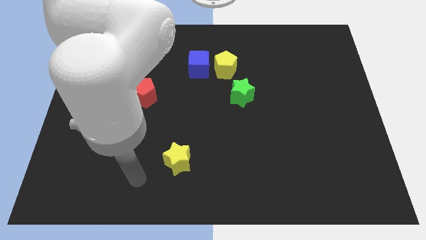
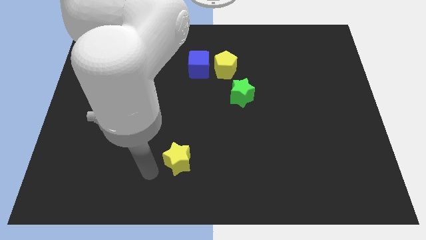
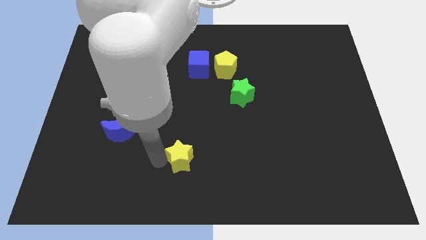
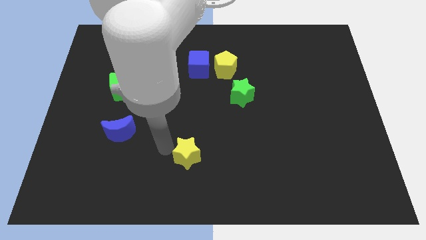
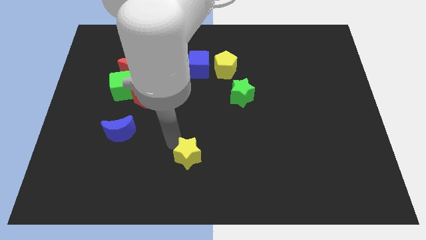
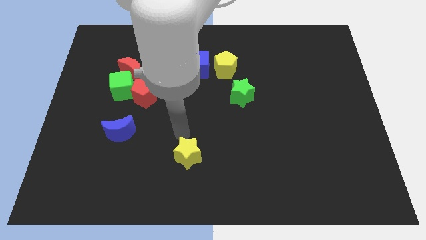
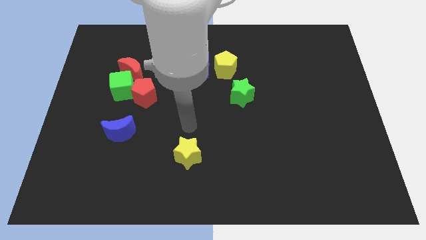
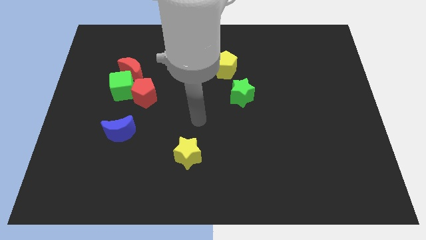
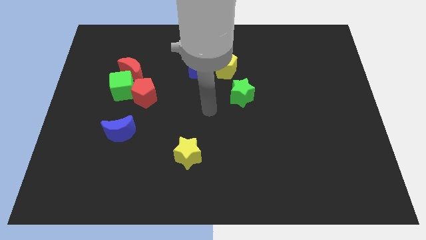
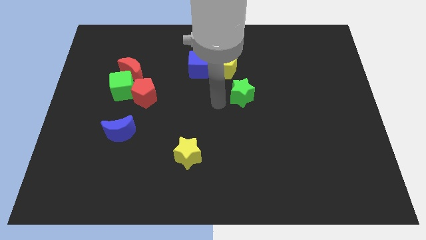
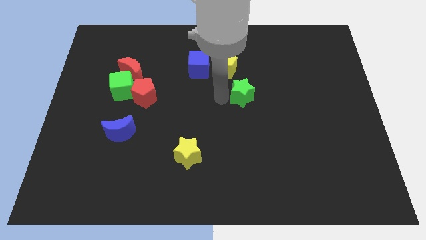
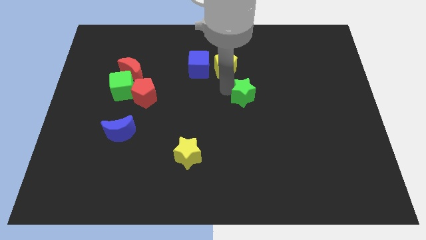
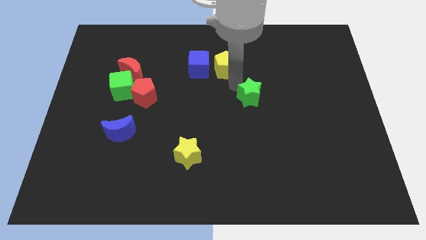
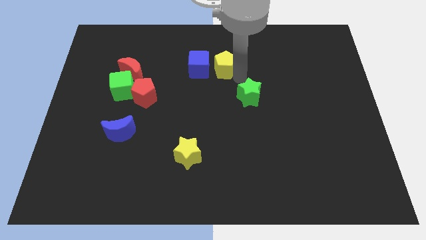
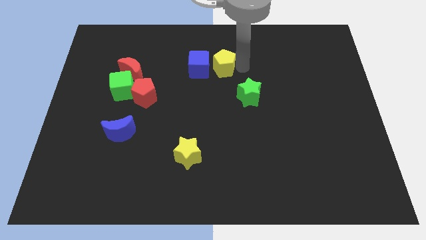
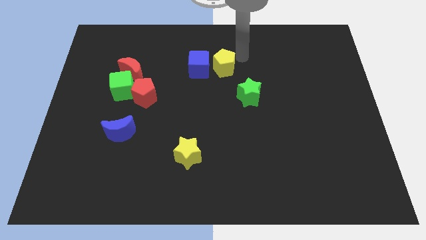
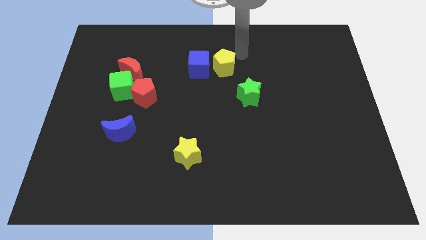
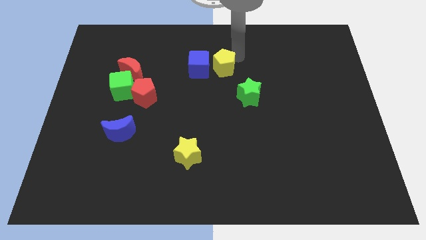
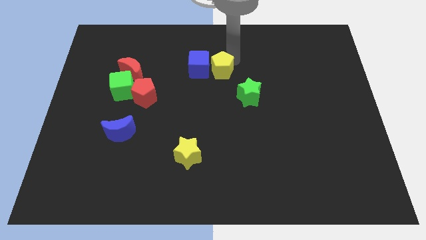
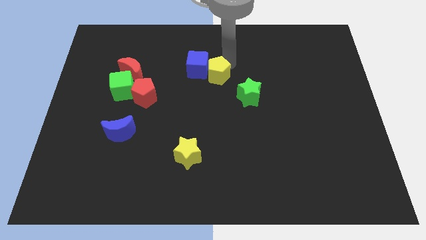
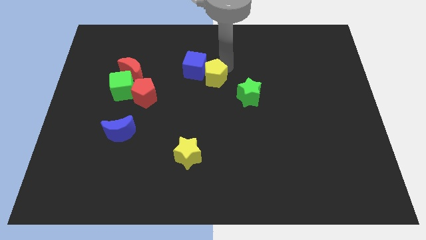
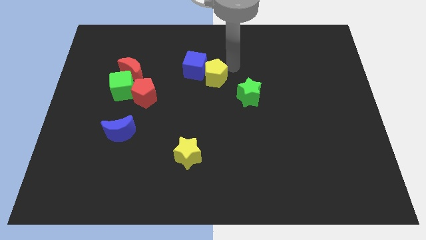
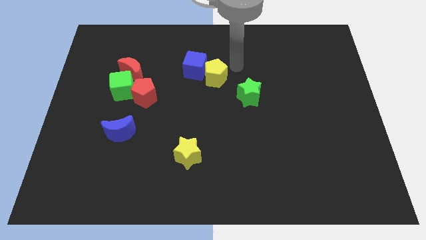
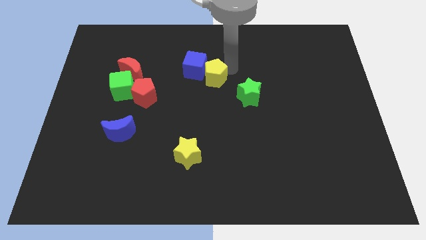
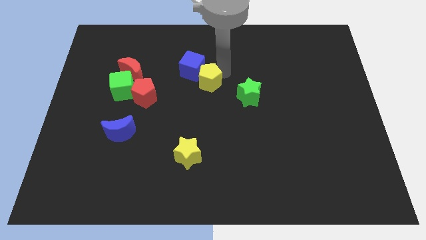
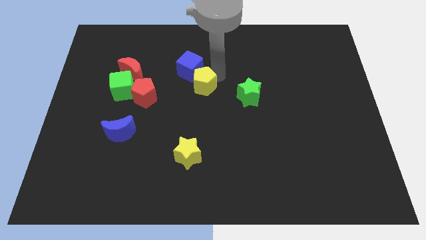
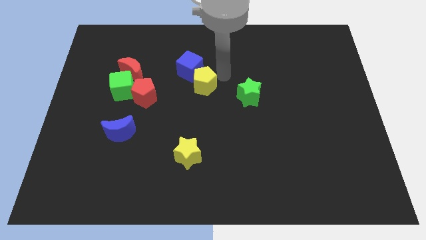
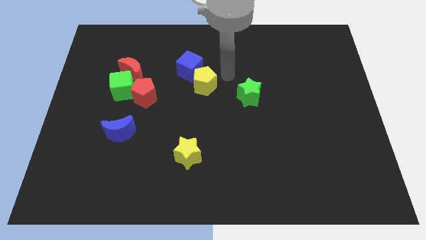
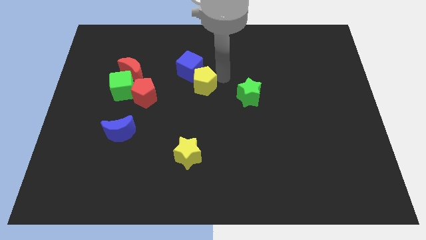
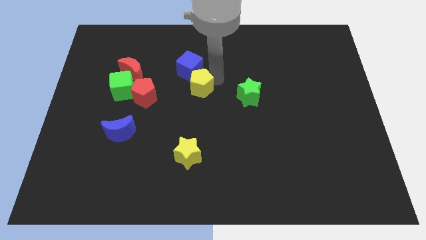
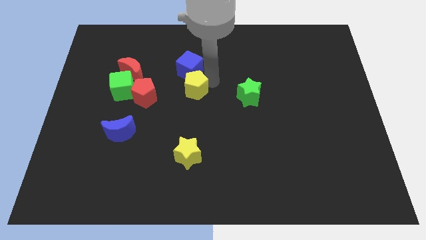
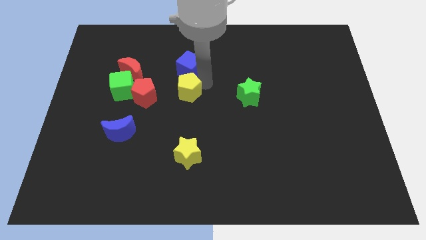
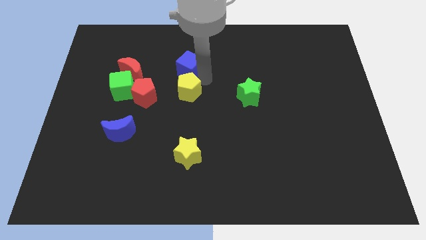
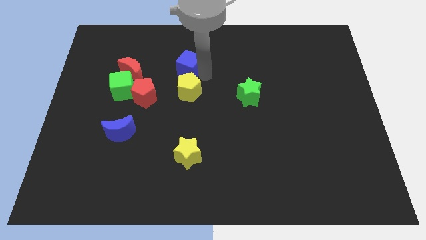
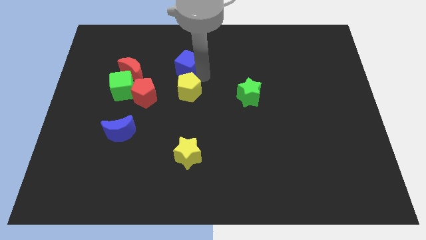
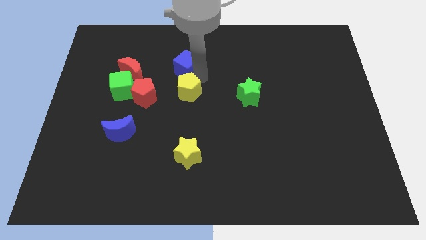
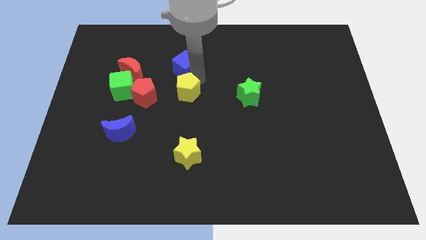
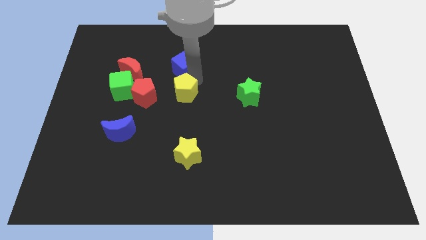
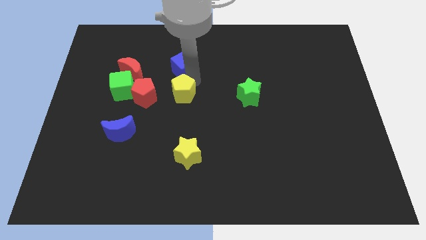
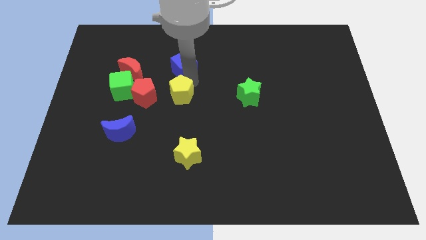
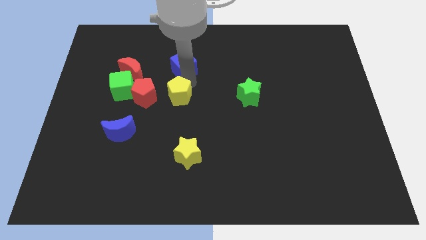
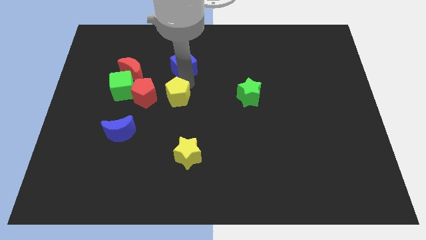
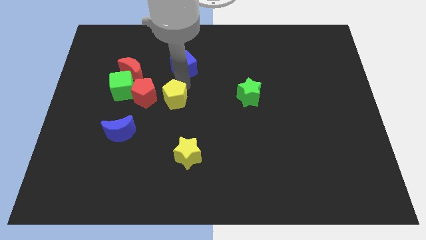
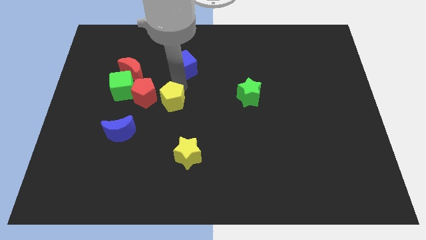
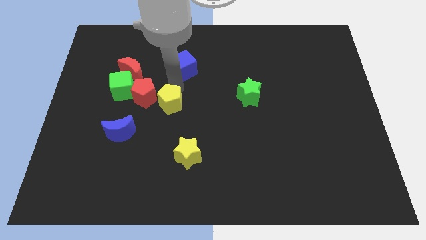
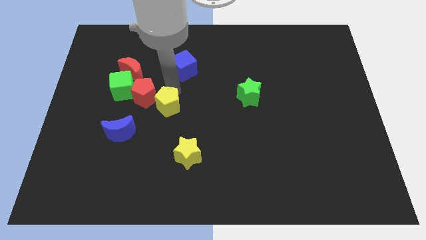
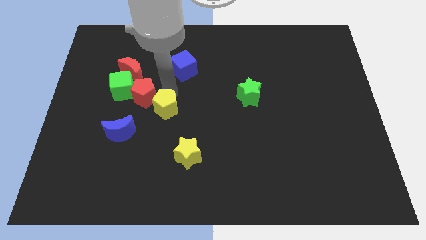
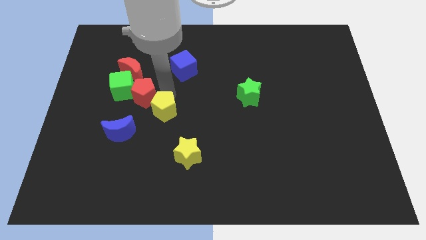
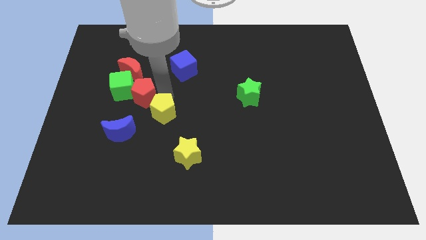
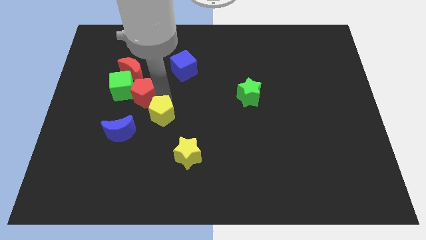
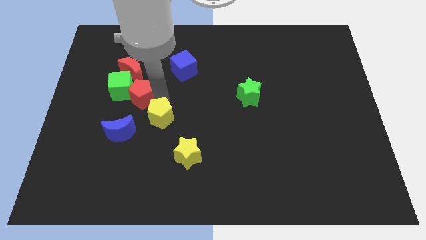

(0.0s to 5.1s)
push the yellow pentagon just right of the blue moon

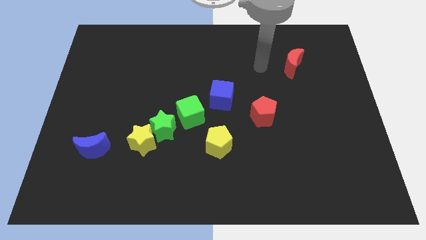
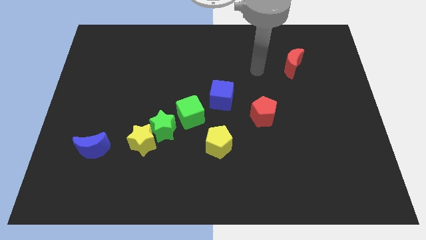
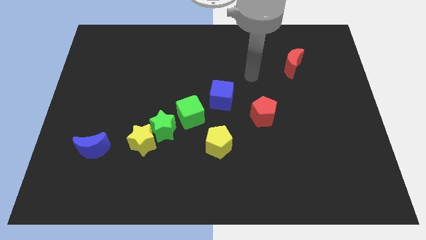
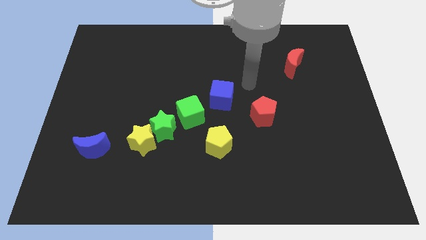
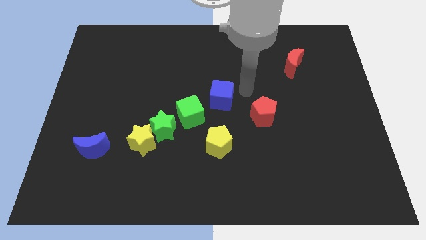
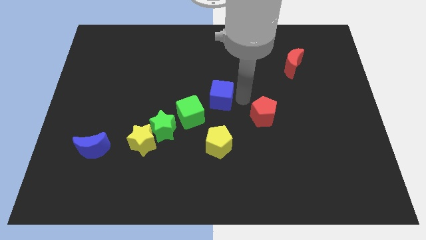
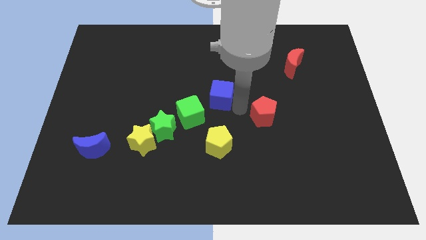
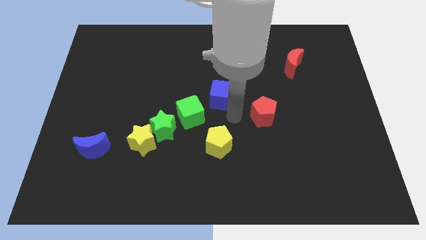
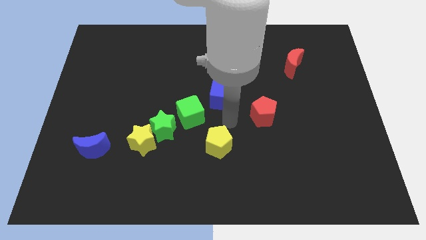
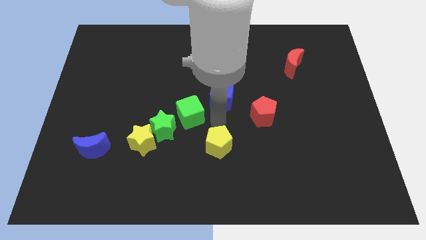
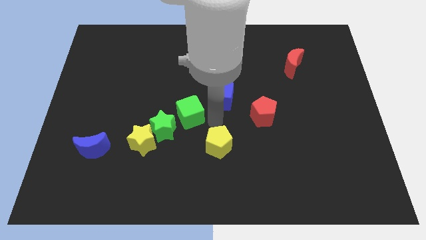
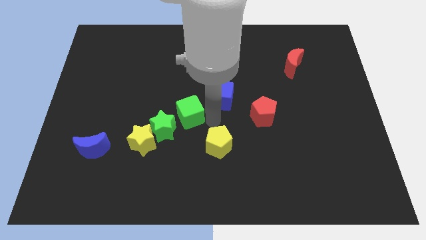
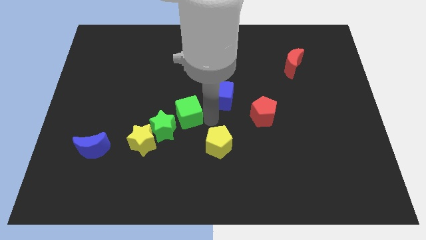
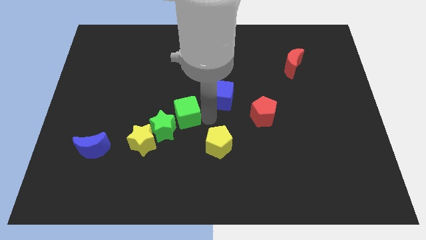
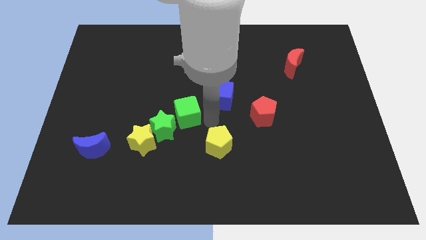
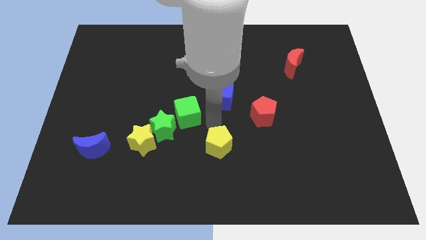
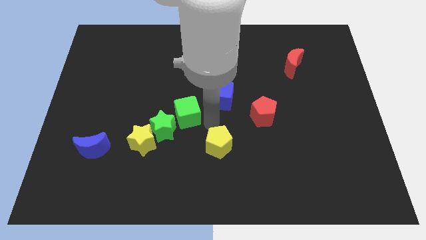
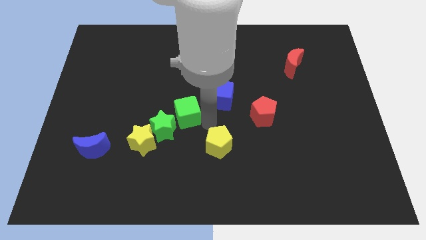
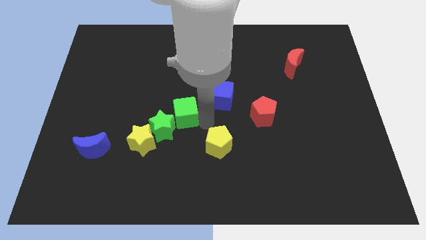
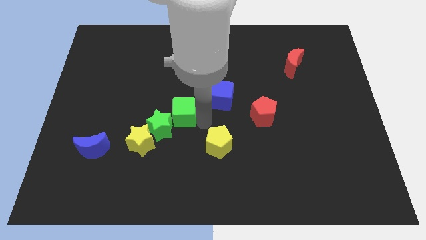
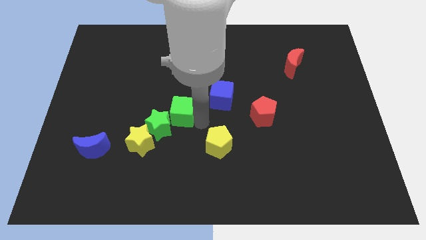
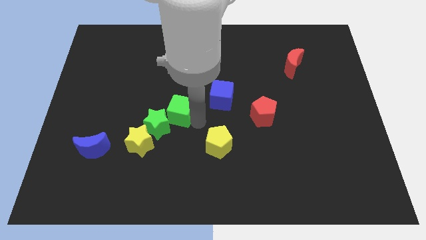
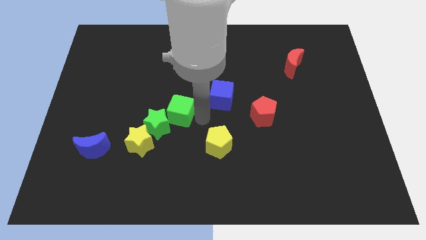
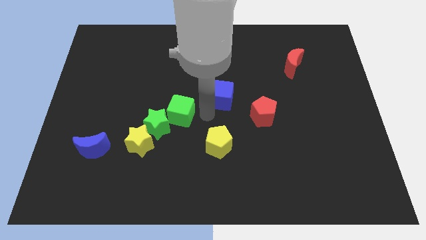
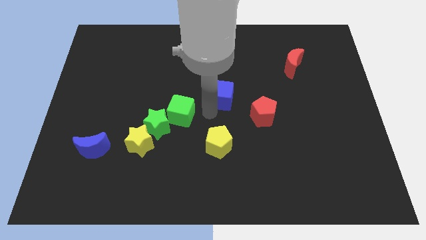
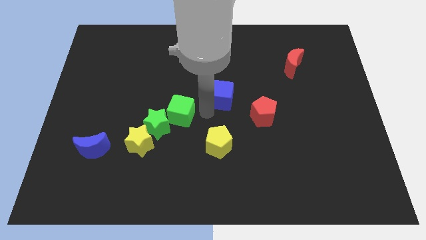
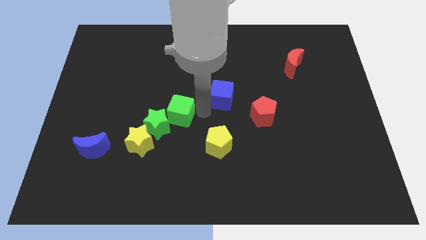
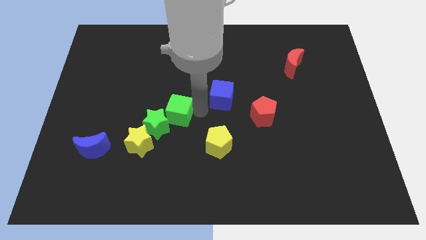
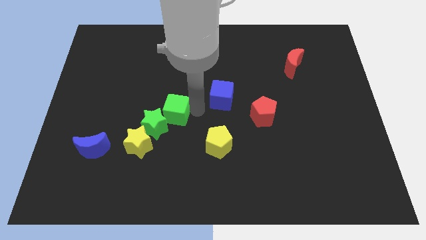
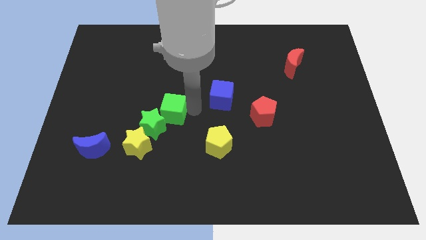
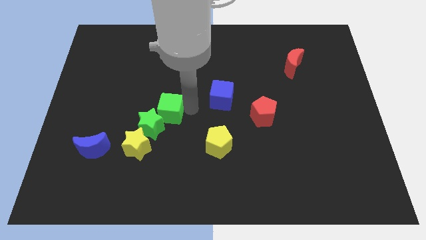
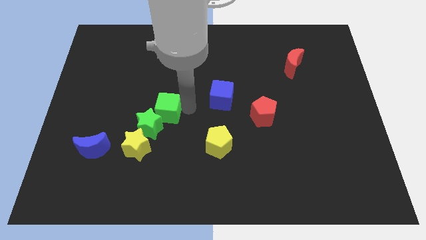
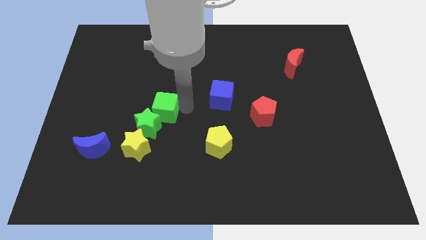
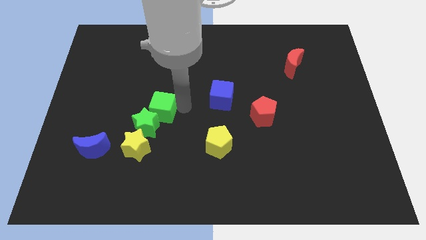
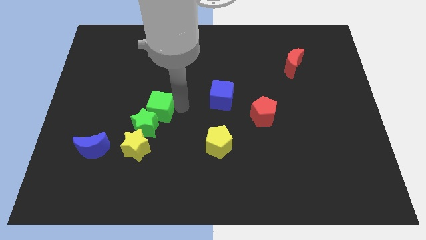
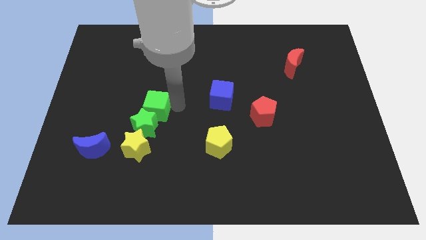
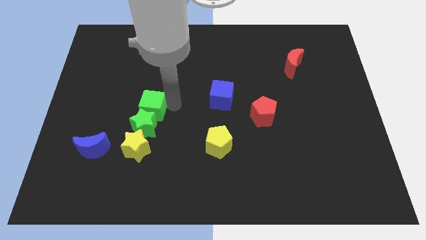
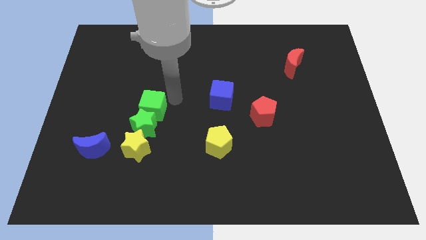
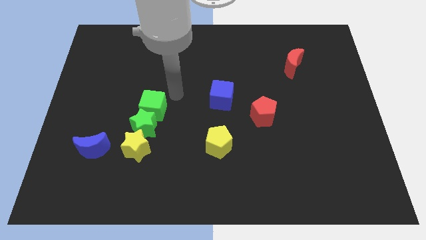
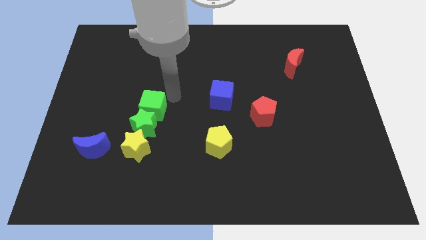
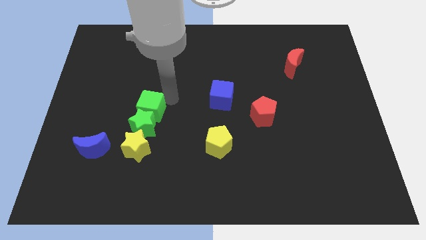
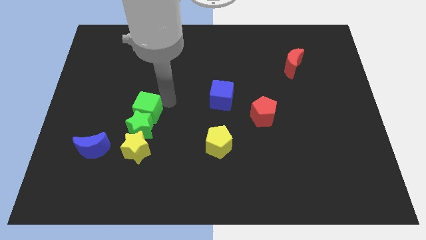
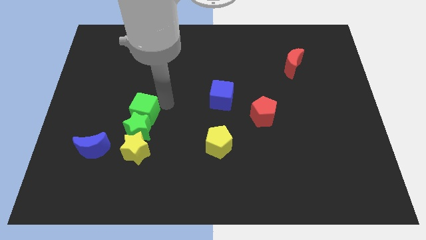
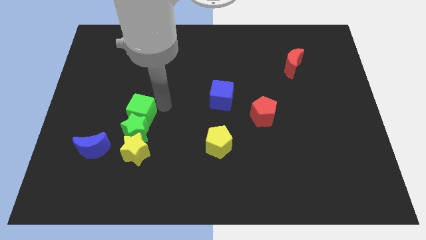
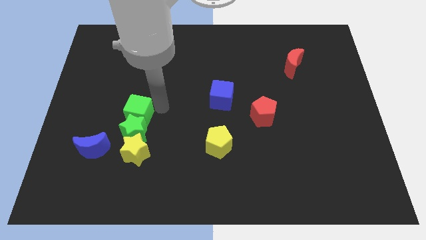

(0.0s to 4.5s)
push the green cube to the top right of the blue moon
